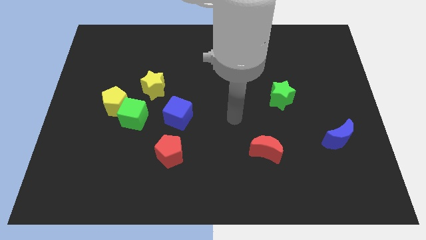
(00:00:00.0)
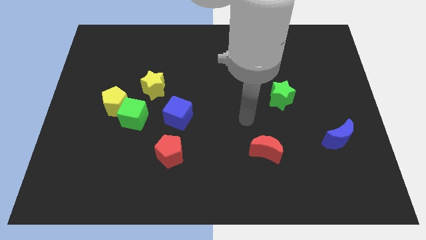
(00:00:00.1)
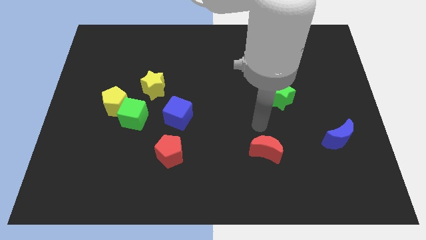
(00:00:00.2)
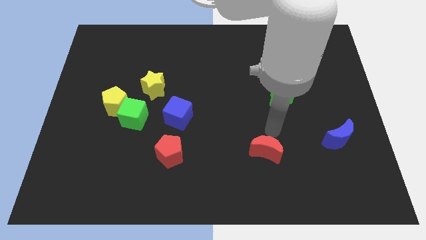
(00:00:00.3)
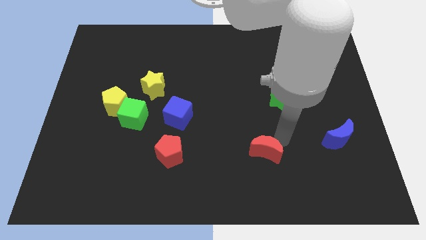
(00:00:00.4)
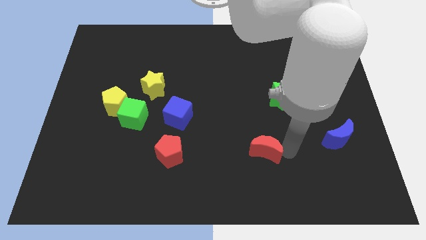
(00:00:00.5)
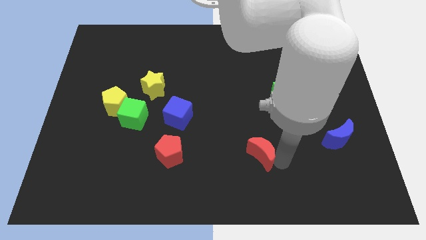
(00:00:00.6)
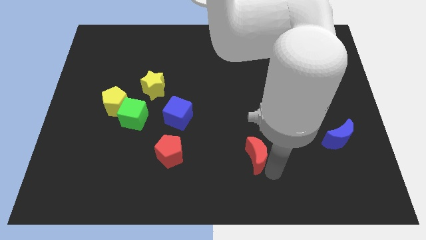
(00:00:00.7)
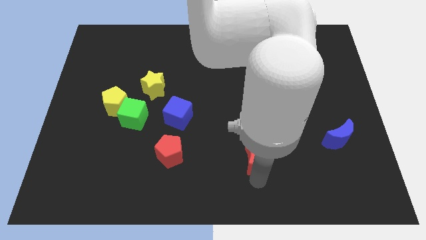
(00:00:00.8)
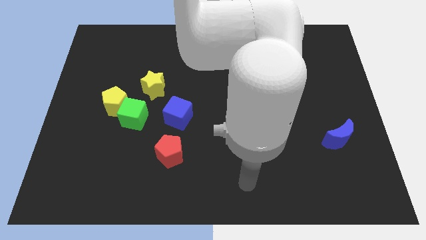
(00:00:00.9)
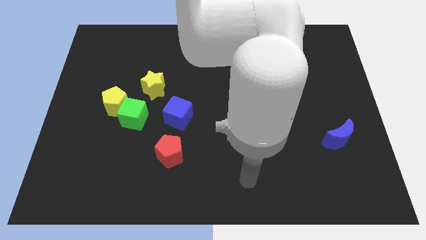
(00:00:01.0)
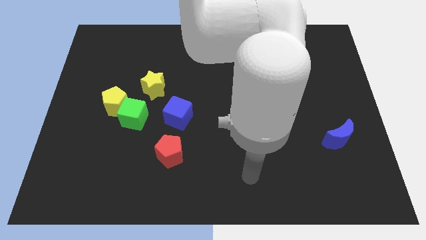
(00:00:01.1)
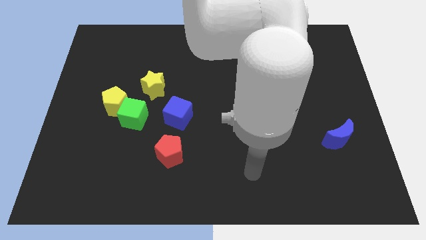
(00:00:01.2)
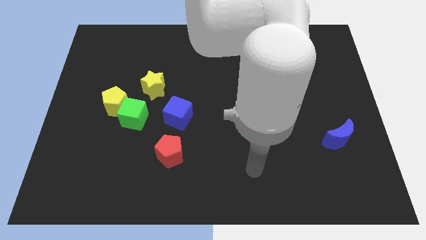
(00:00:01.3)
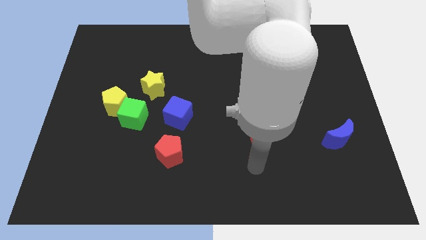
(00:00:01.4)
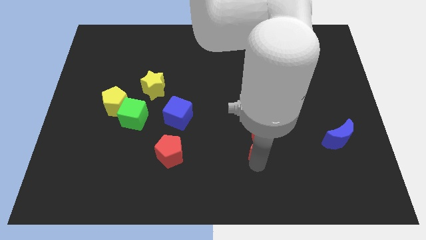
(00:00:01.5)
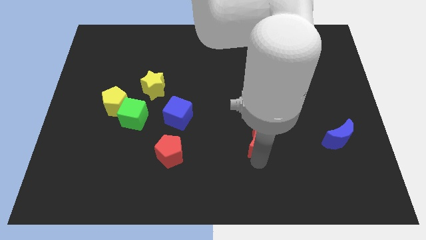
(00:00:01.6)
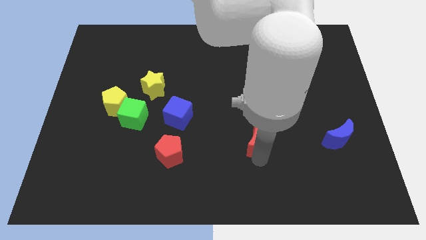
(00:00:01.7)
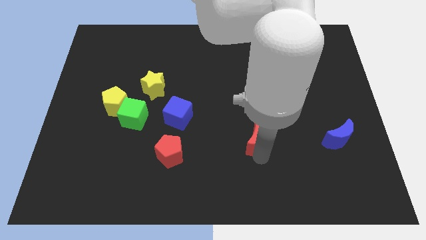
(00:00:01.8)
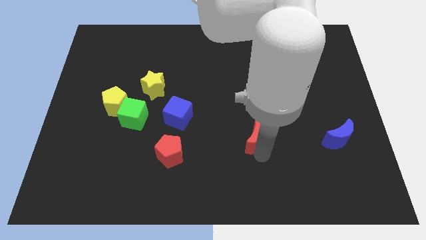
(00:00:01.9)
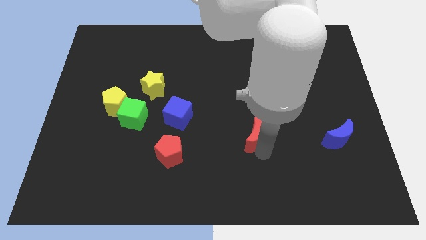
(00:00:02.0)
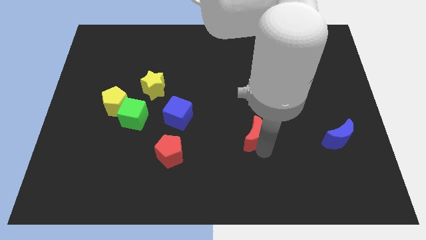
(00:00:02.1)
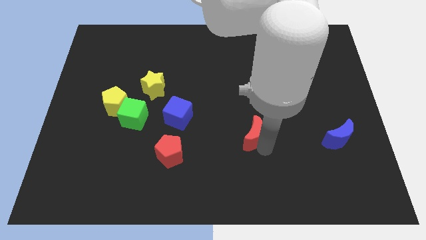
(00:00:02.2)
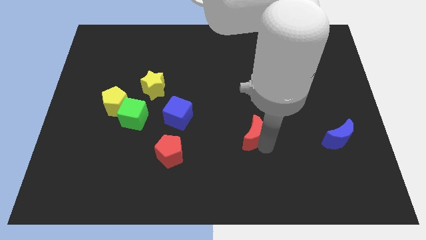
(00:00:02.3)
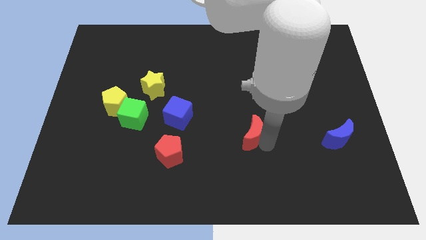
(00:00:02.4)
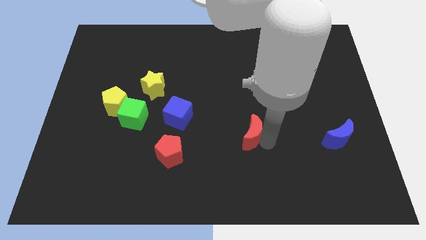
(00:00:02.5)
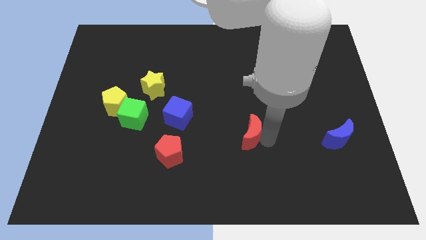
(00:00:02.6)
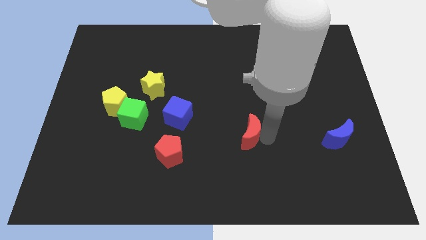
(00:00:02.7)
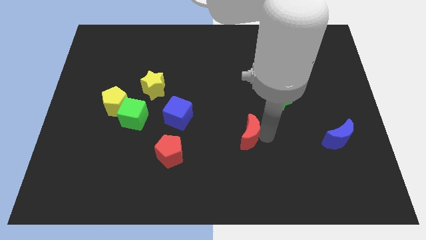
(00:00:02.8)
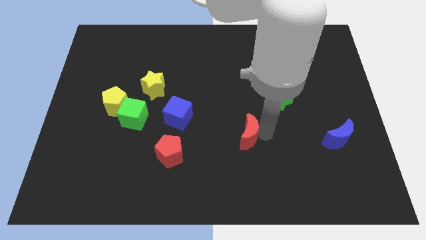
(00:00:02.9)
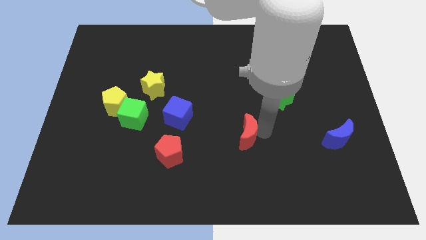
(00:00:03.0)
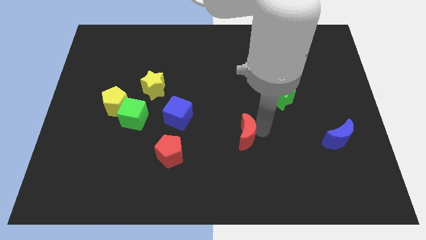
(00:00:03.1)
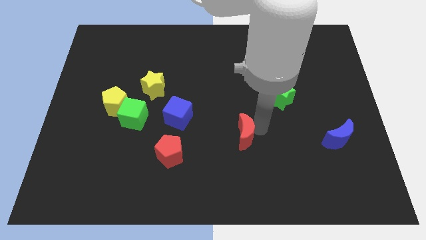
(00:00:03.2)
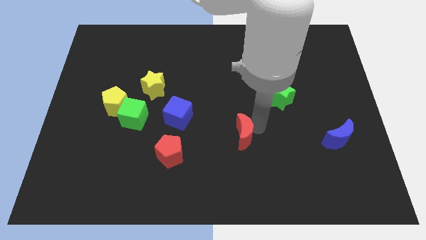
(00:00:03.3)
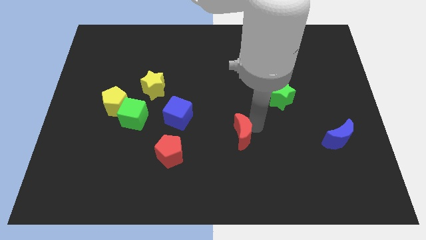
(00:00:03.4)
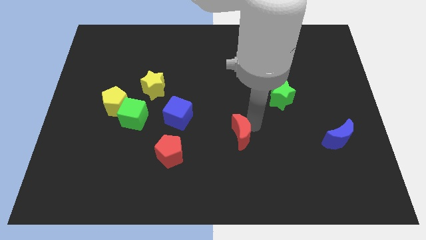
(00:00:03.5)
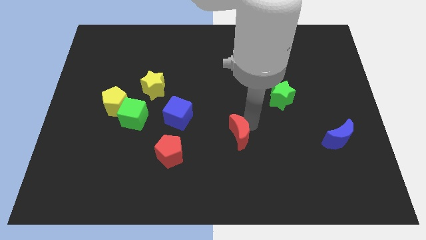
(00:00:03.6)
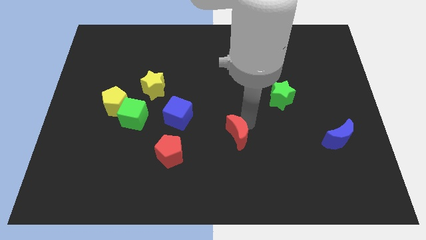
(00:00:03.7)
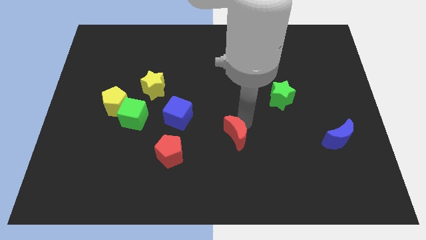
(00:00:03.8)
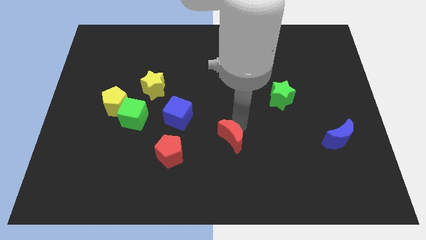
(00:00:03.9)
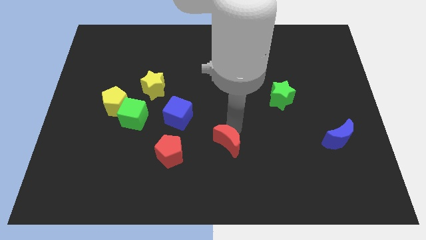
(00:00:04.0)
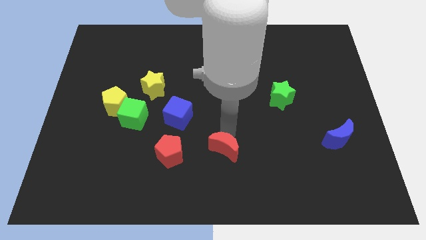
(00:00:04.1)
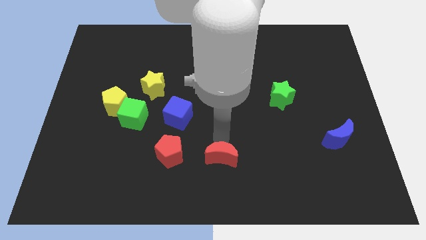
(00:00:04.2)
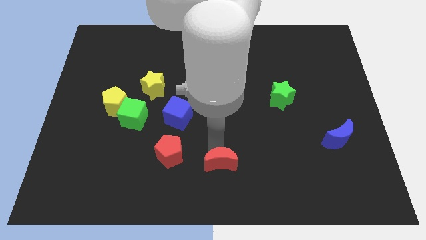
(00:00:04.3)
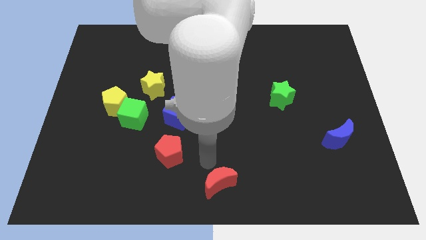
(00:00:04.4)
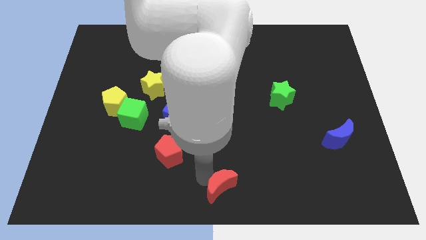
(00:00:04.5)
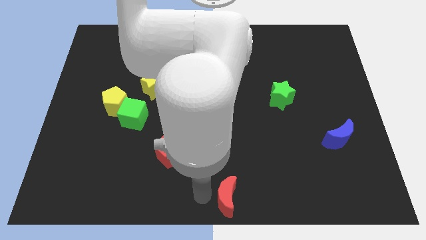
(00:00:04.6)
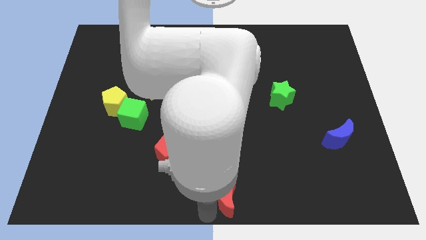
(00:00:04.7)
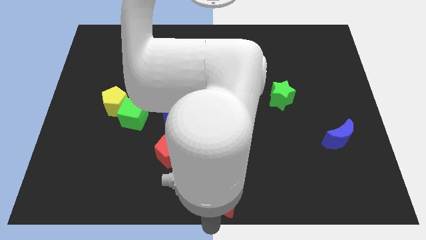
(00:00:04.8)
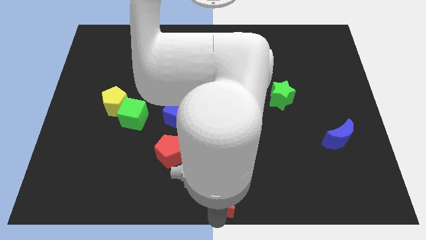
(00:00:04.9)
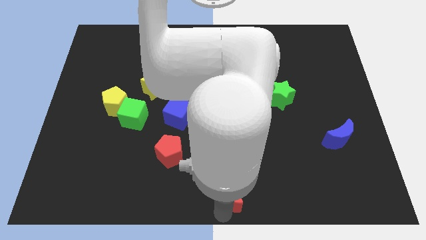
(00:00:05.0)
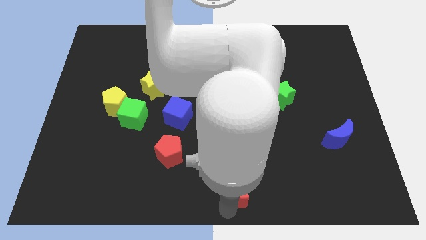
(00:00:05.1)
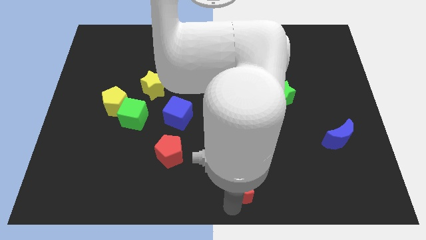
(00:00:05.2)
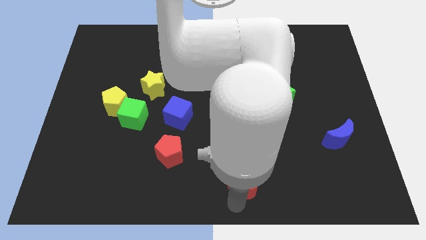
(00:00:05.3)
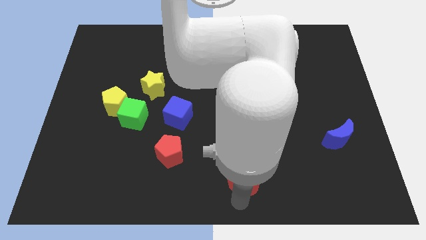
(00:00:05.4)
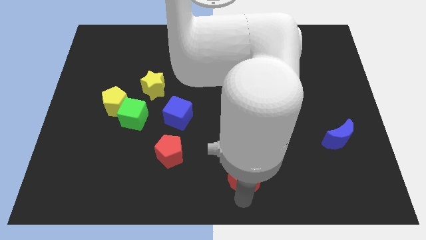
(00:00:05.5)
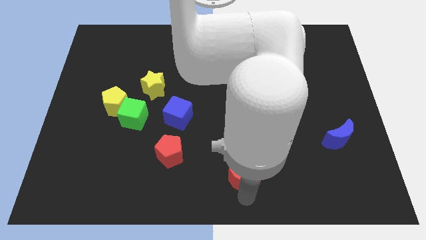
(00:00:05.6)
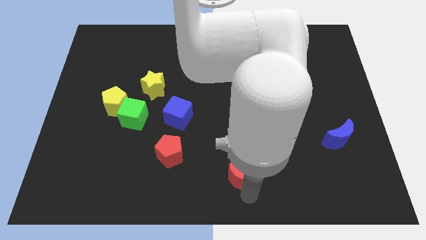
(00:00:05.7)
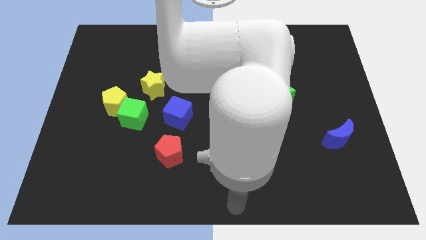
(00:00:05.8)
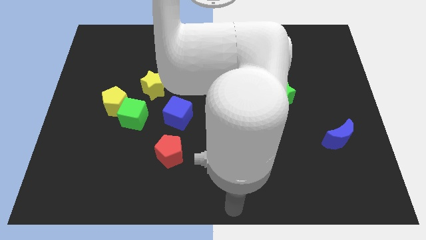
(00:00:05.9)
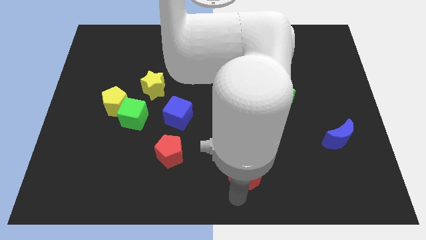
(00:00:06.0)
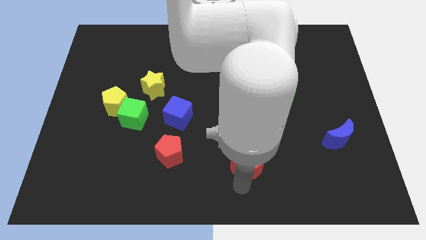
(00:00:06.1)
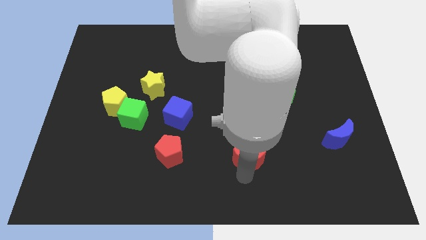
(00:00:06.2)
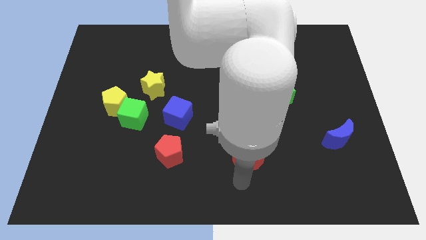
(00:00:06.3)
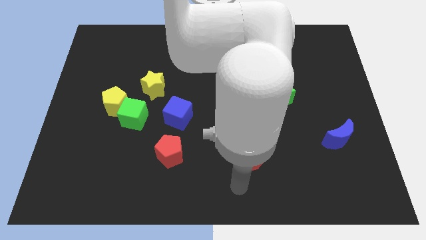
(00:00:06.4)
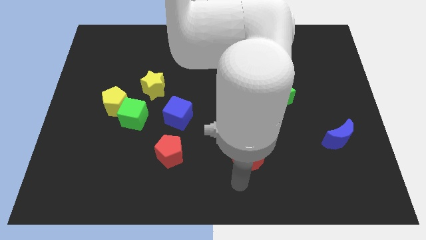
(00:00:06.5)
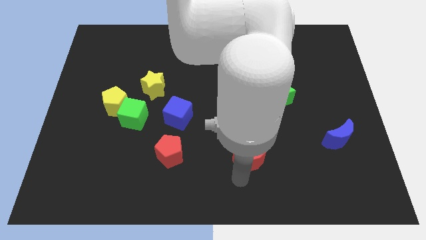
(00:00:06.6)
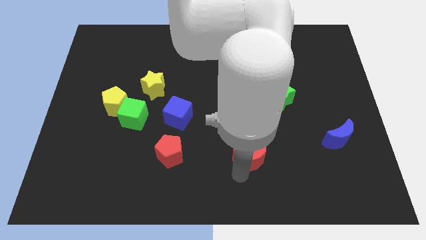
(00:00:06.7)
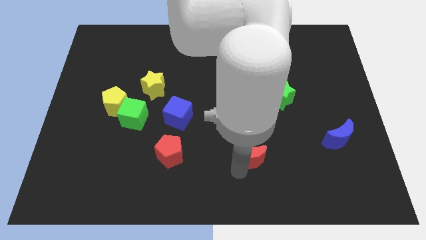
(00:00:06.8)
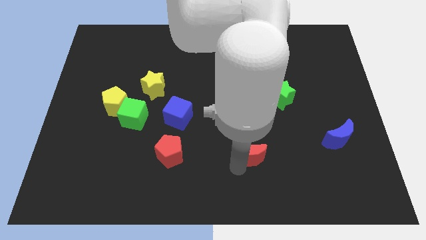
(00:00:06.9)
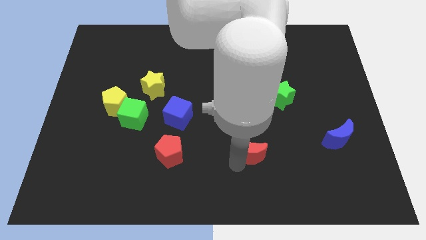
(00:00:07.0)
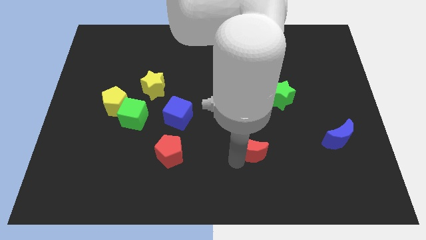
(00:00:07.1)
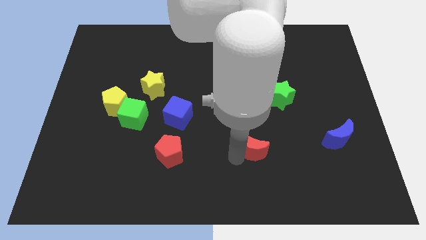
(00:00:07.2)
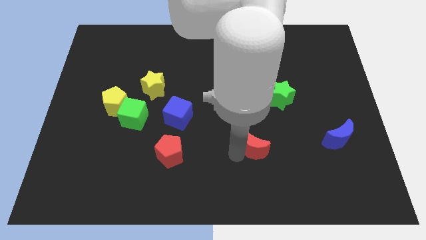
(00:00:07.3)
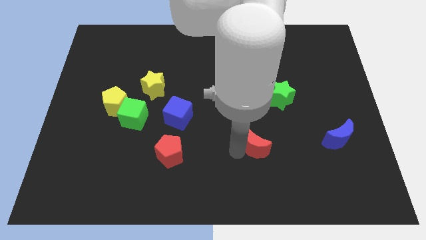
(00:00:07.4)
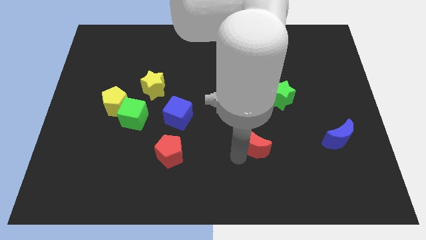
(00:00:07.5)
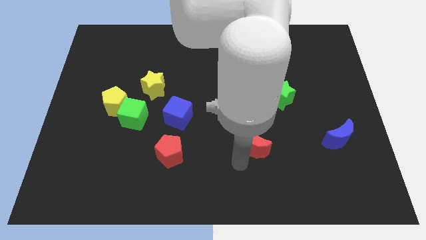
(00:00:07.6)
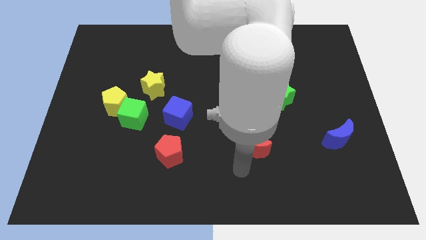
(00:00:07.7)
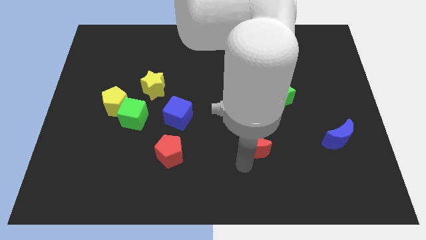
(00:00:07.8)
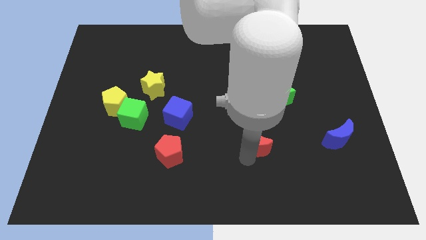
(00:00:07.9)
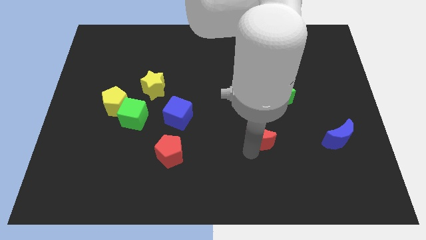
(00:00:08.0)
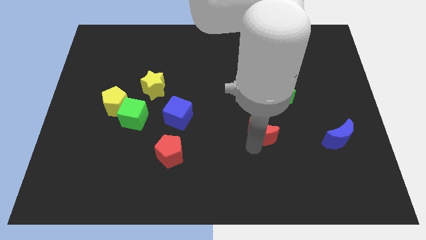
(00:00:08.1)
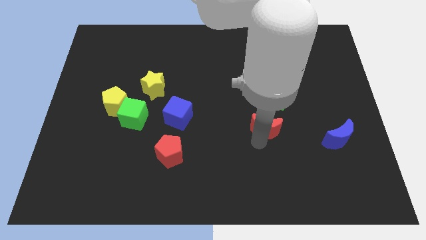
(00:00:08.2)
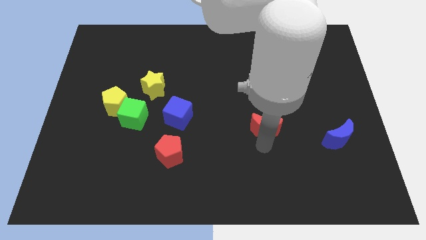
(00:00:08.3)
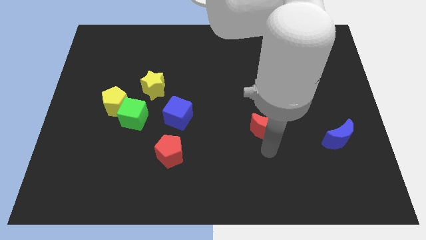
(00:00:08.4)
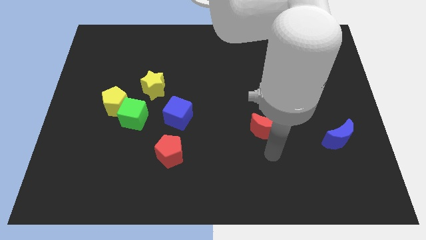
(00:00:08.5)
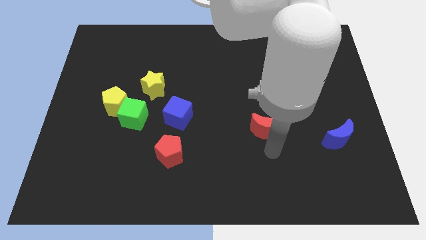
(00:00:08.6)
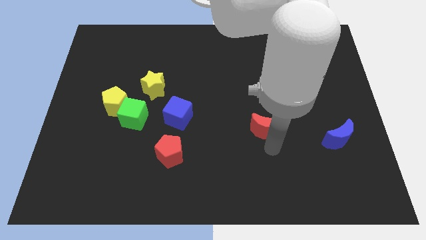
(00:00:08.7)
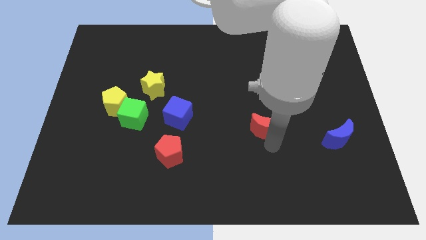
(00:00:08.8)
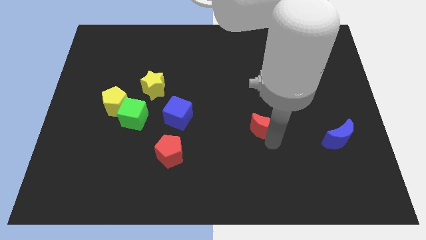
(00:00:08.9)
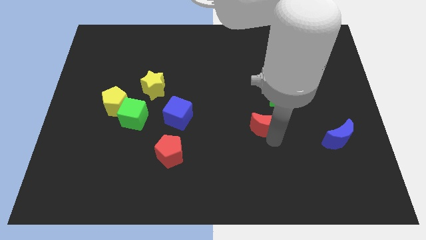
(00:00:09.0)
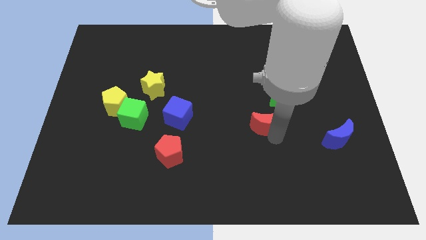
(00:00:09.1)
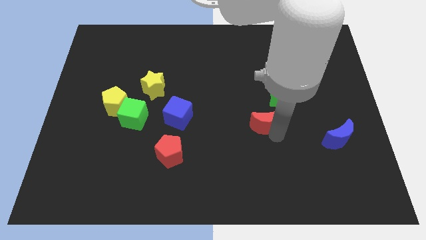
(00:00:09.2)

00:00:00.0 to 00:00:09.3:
push the red moon slightly up
